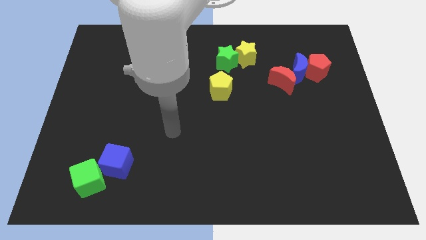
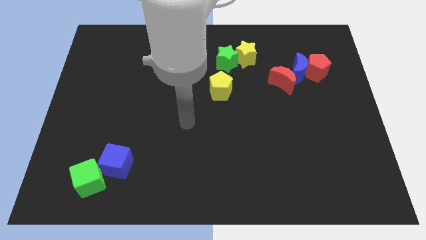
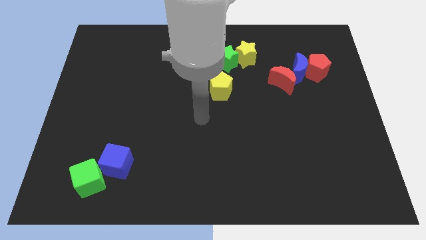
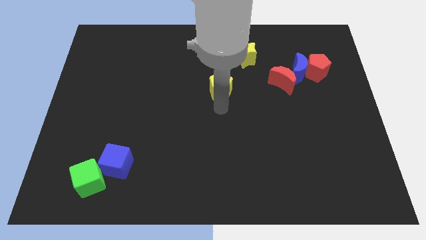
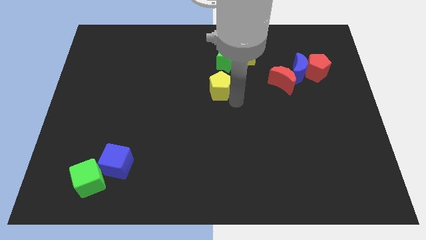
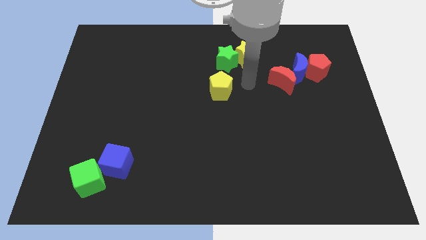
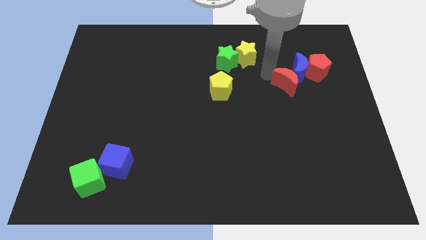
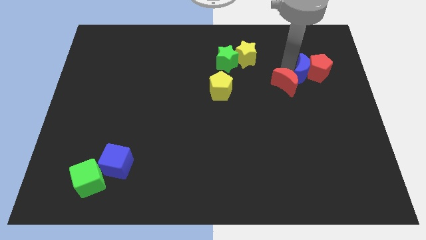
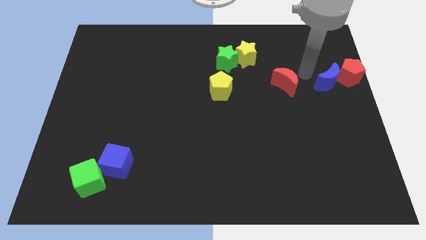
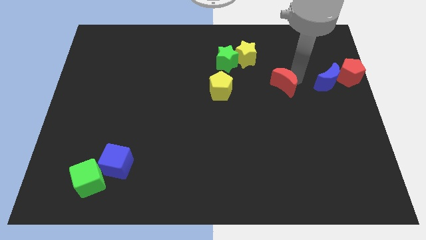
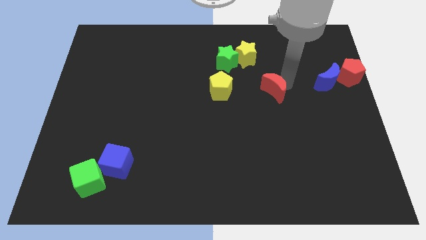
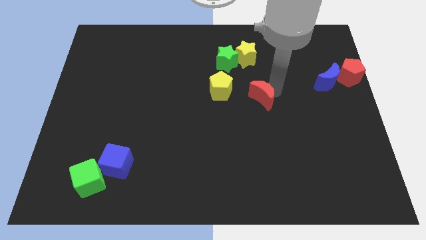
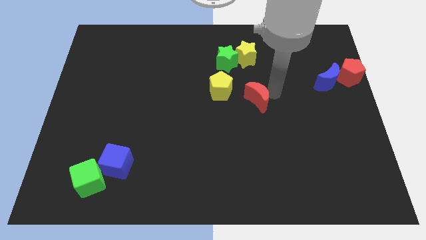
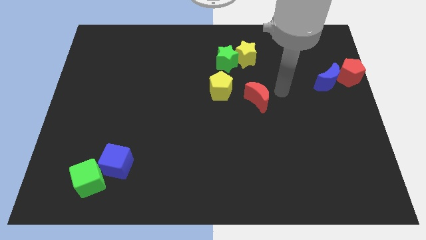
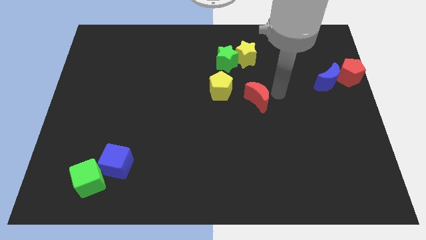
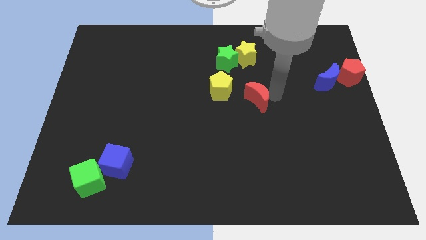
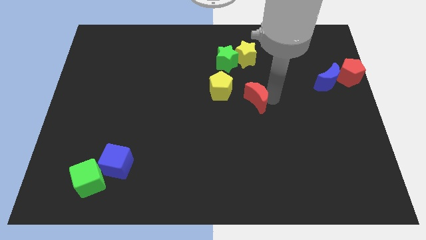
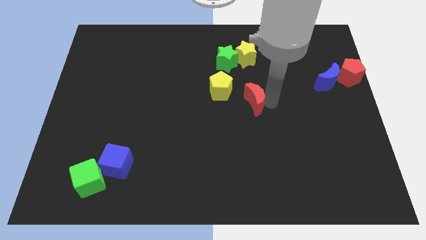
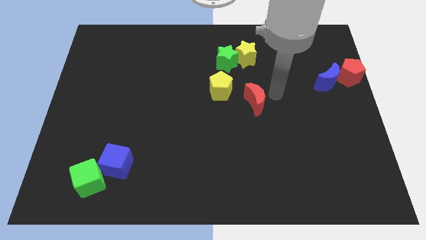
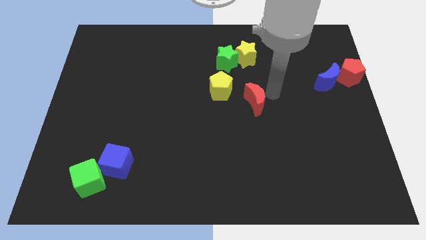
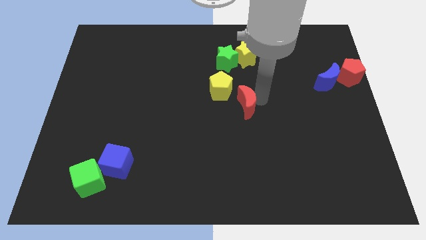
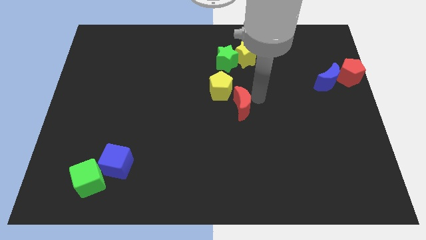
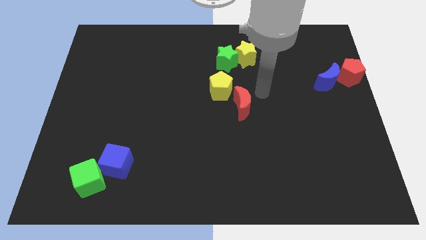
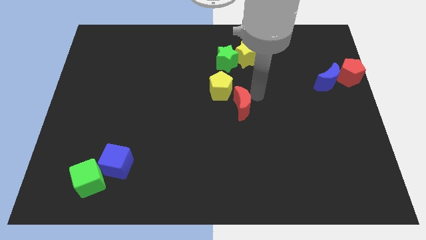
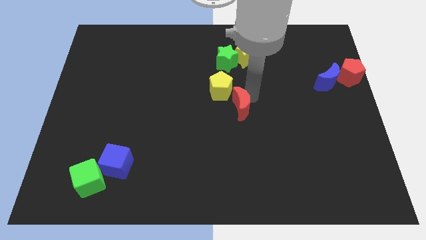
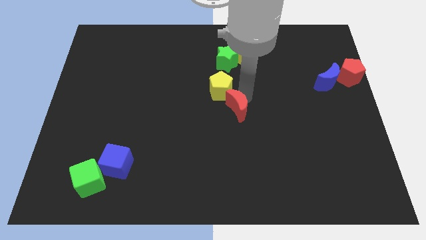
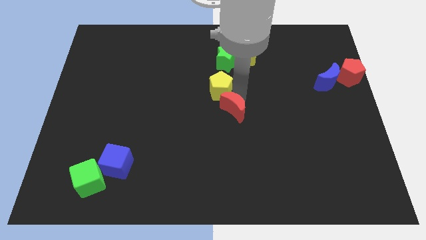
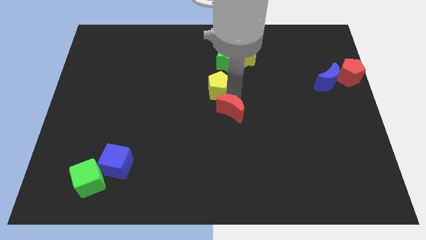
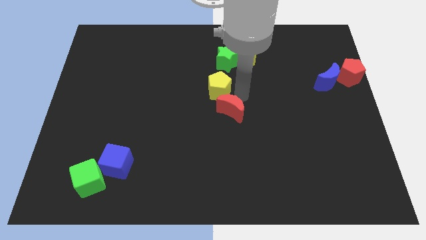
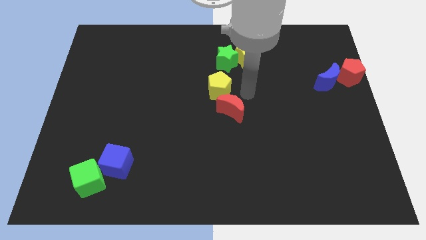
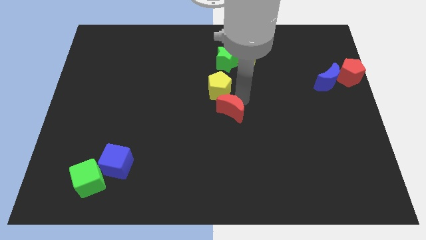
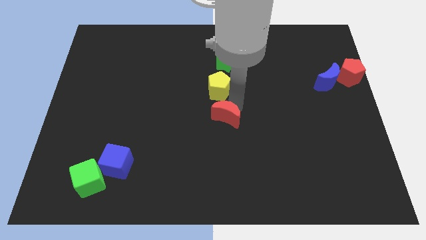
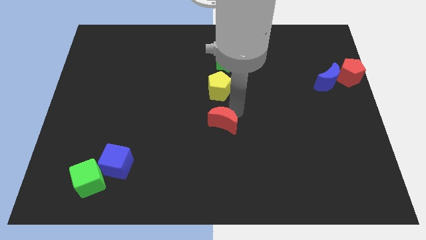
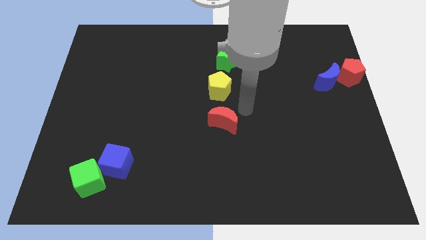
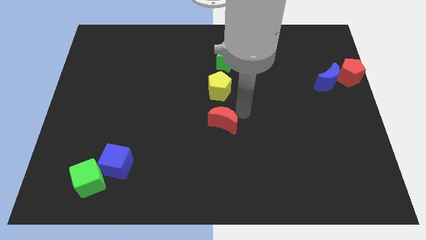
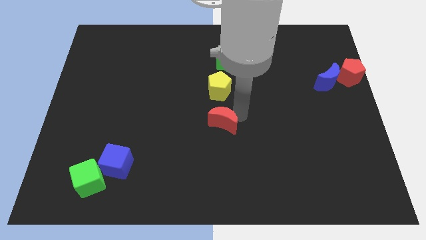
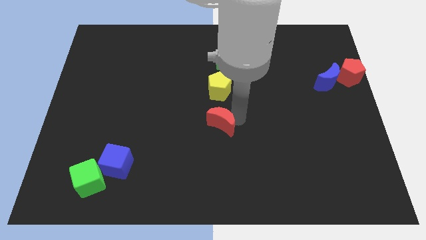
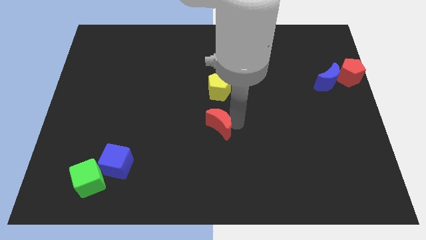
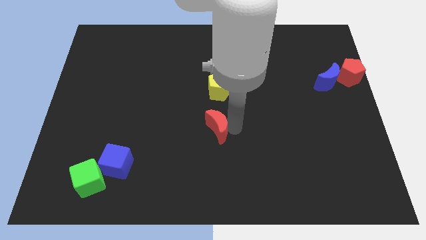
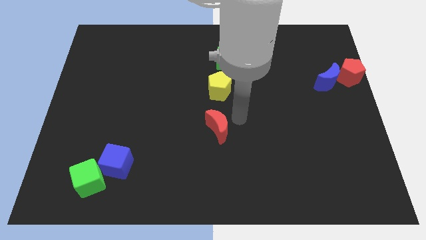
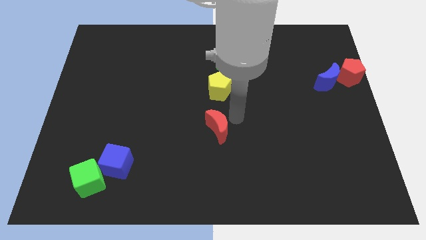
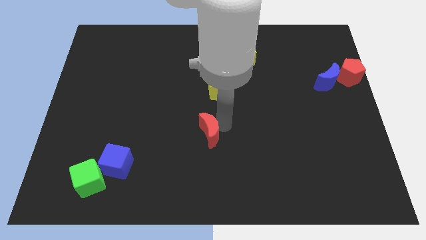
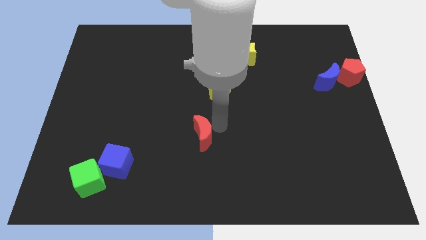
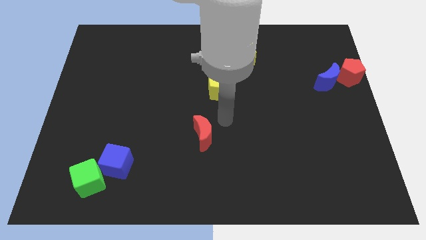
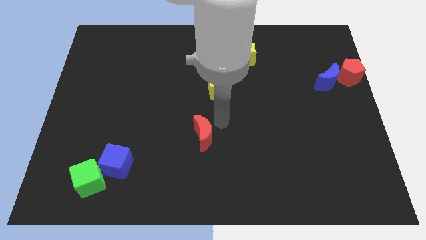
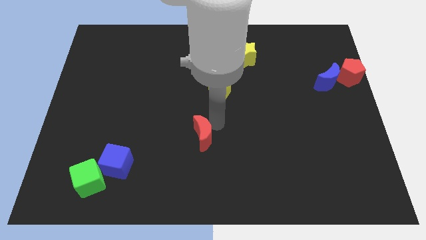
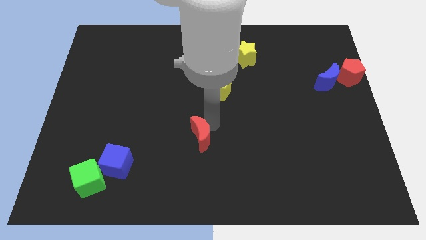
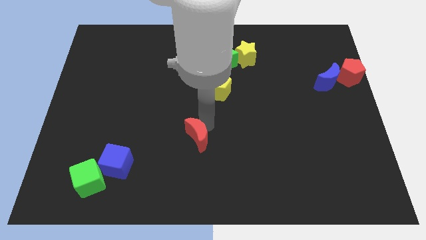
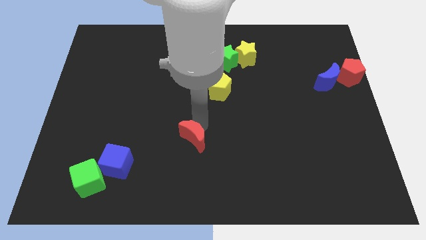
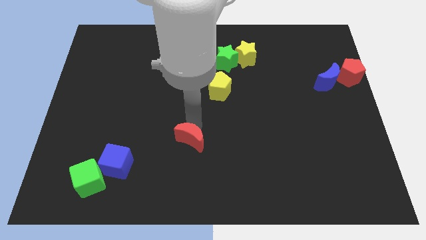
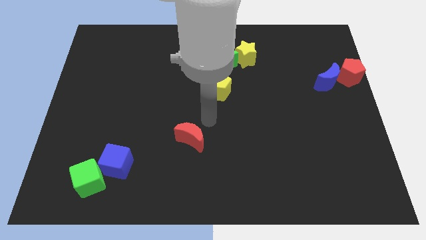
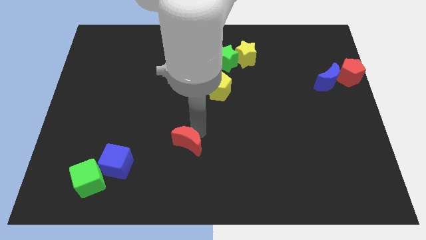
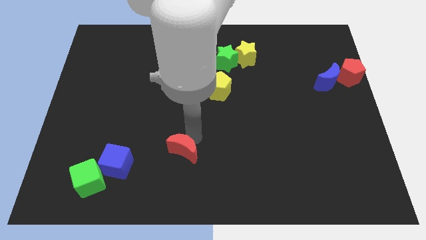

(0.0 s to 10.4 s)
put the red moon to the right of the blue cube

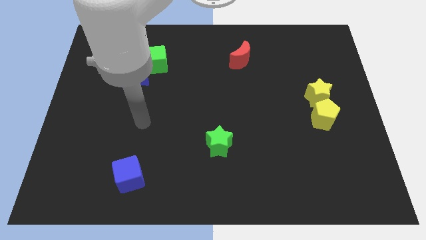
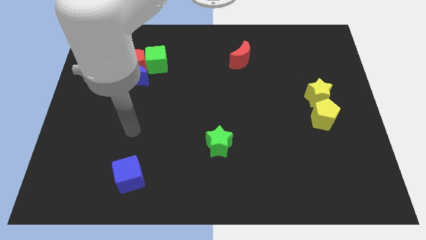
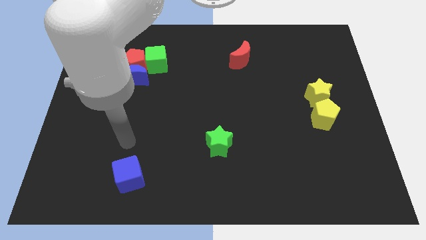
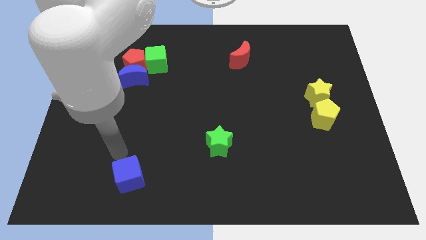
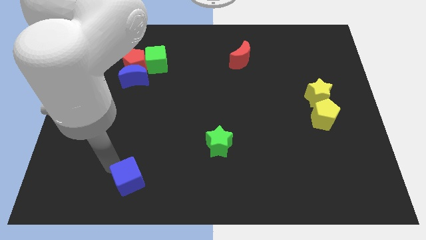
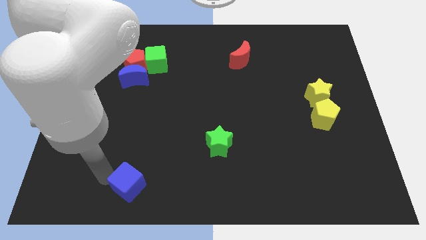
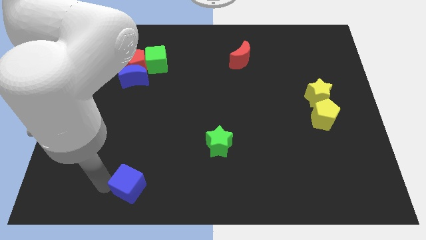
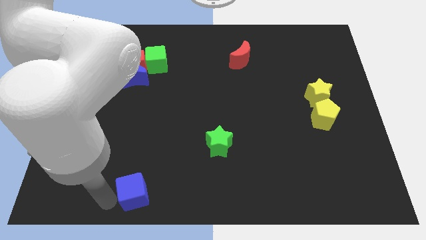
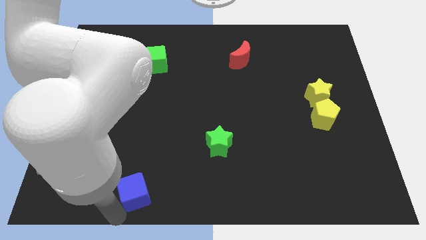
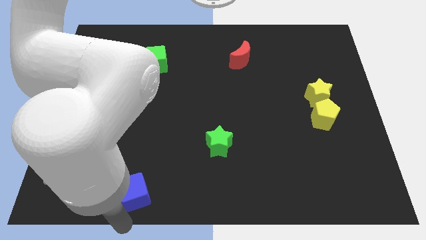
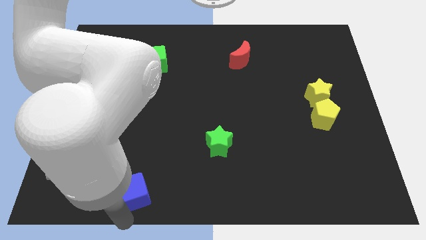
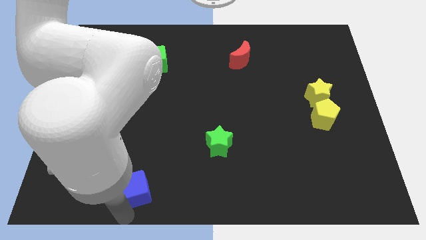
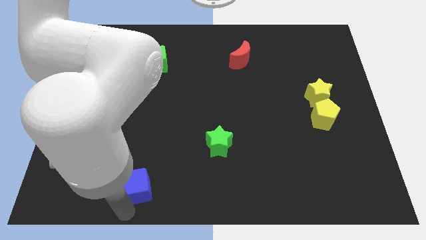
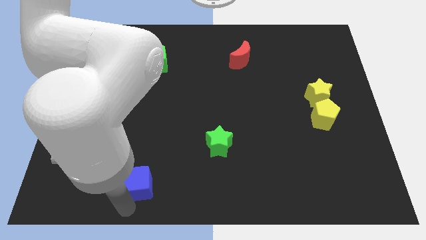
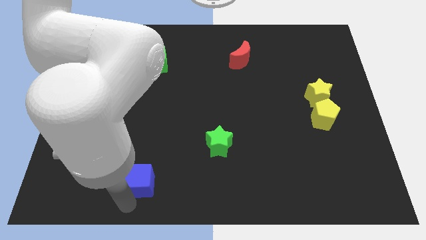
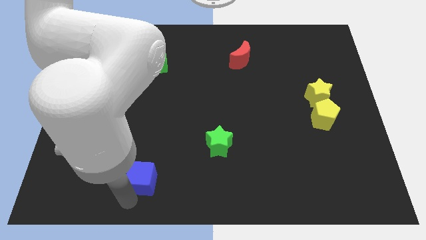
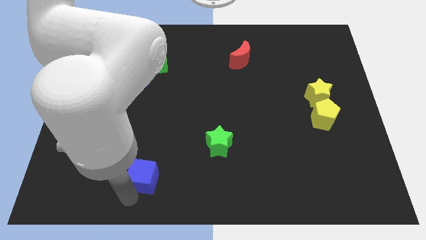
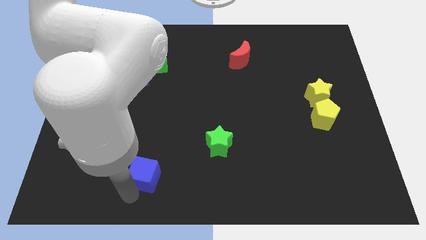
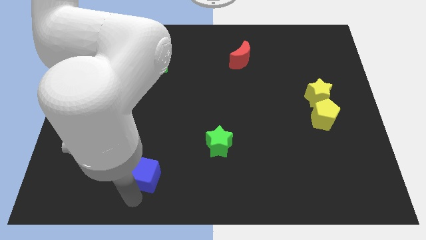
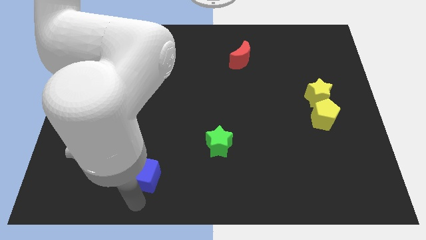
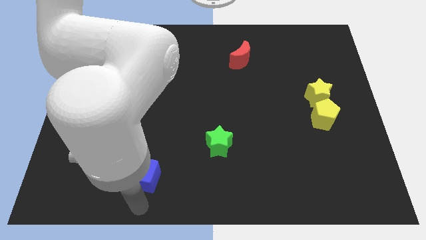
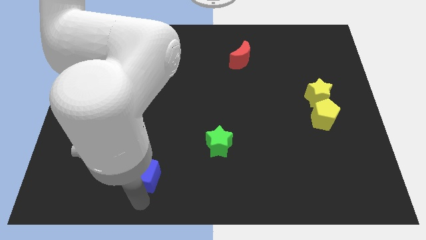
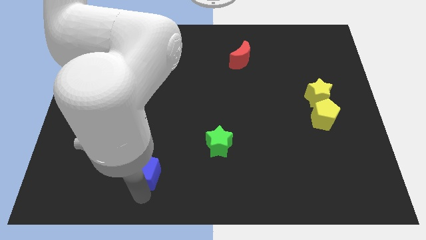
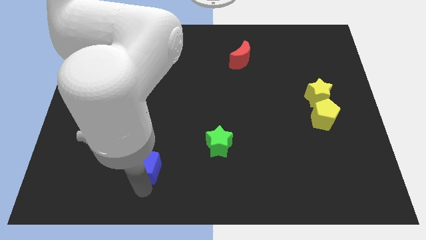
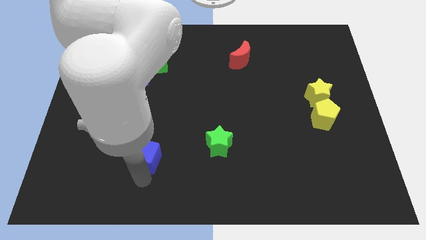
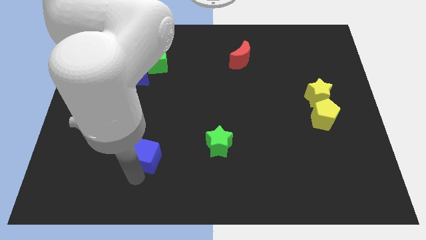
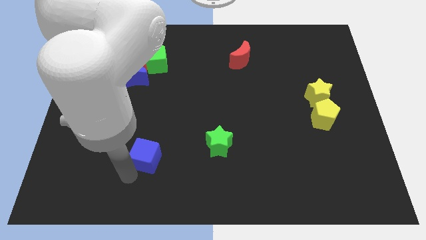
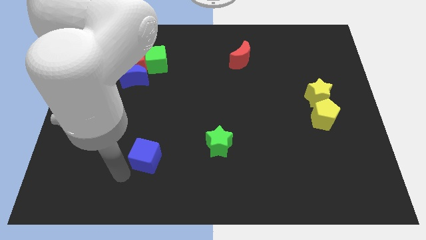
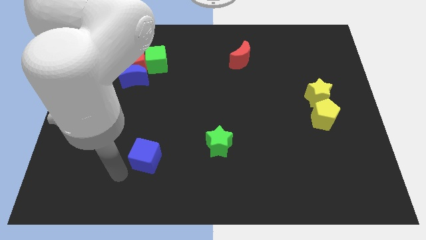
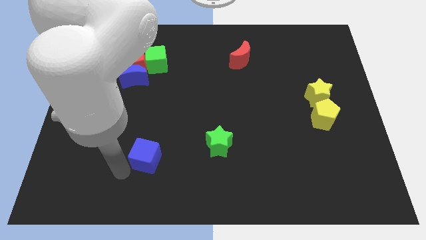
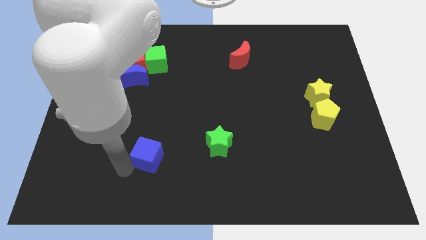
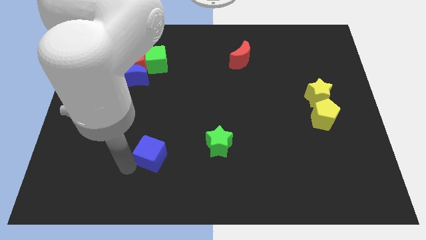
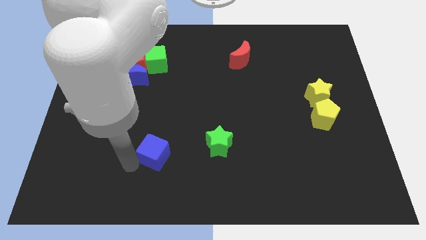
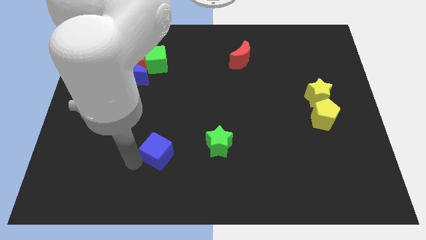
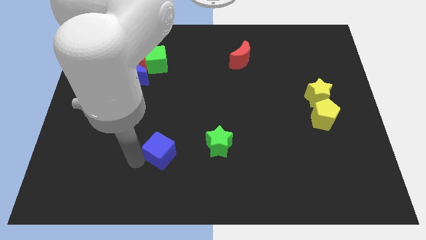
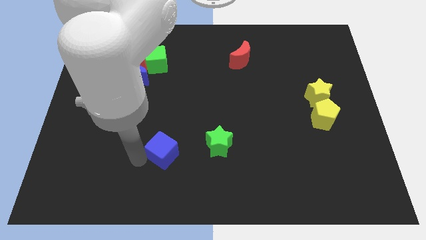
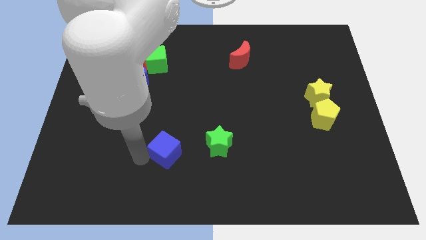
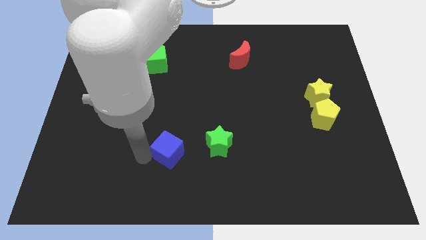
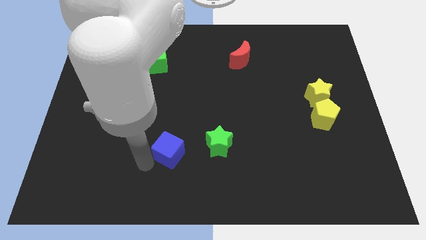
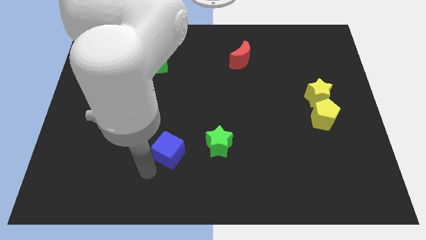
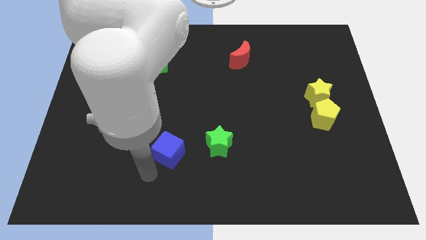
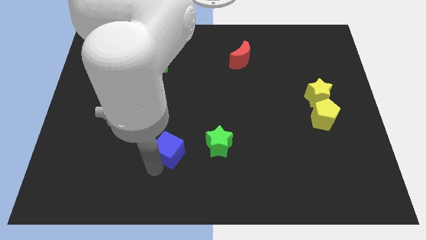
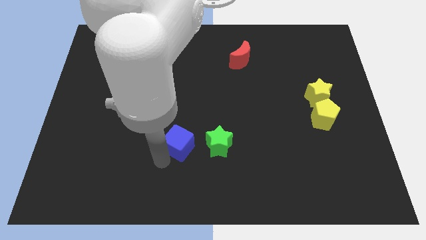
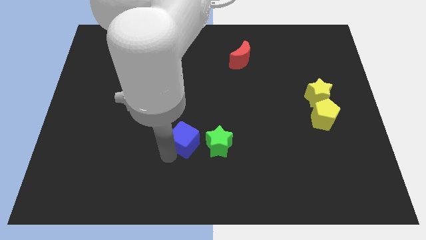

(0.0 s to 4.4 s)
move the blue cube to the top left side of the green star
